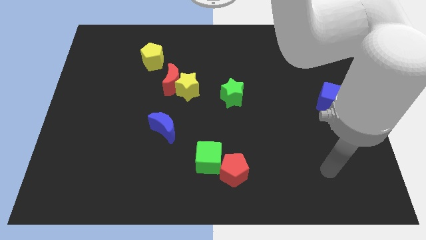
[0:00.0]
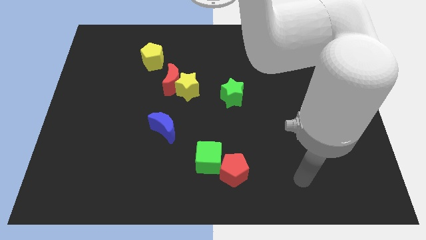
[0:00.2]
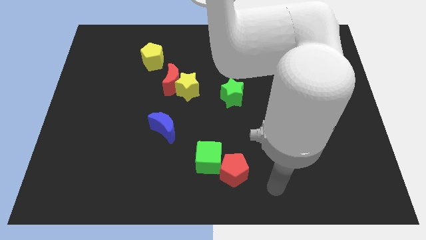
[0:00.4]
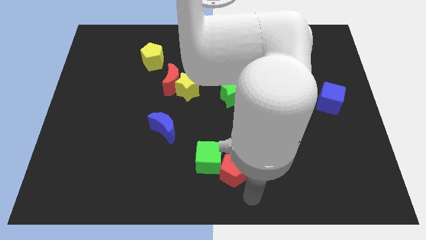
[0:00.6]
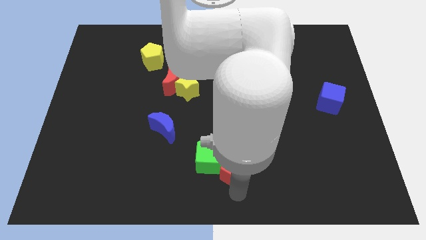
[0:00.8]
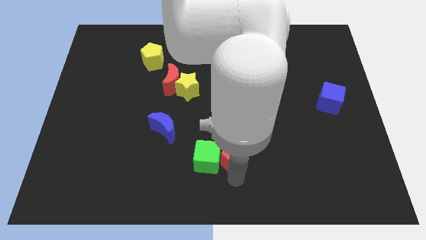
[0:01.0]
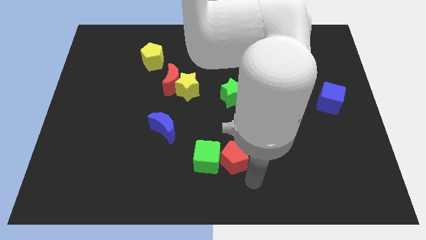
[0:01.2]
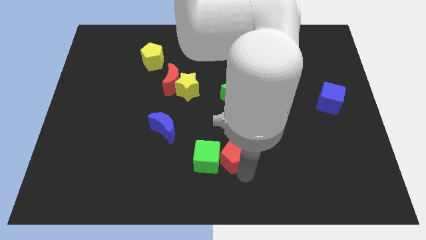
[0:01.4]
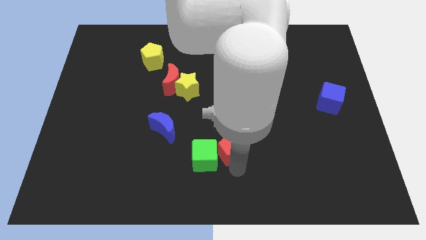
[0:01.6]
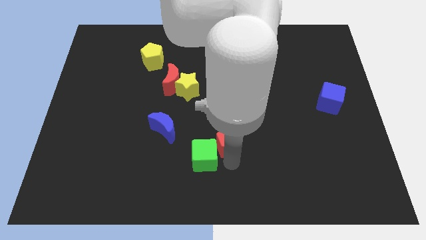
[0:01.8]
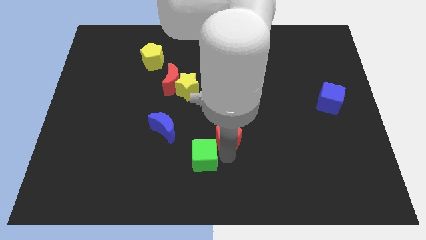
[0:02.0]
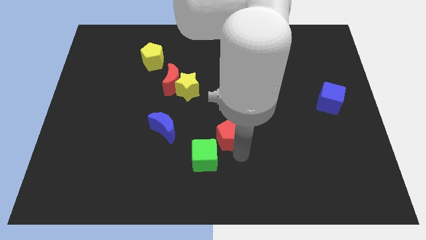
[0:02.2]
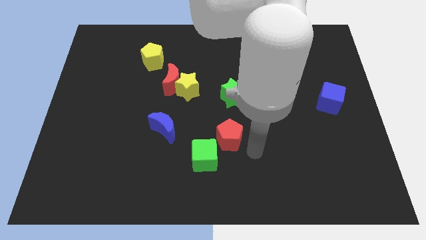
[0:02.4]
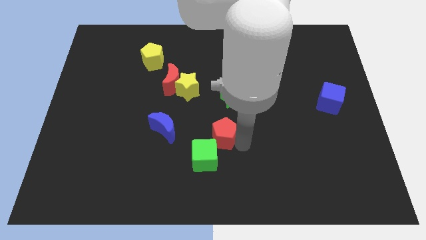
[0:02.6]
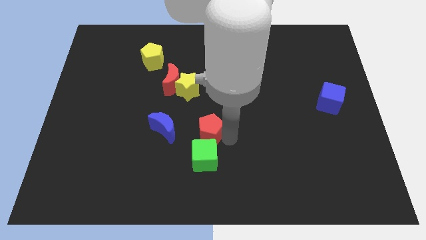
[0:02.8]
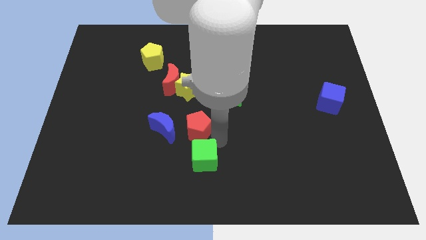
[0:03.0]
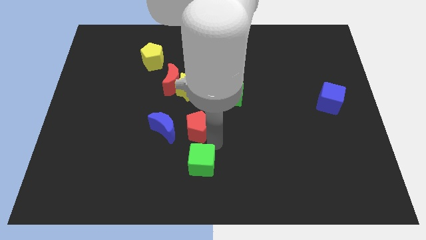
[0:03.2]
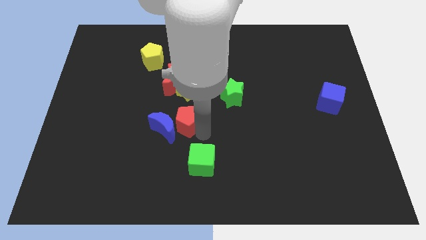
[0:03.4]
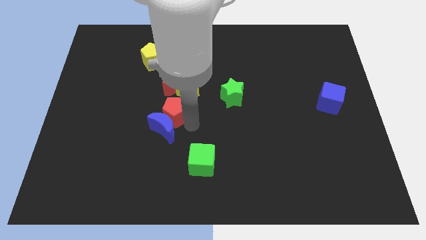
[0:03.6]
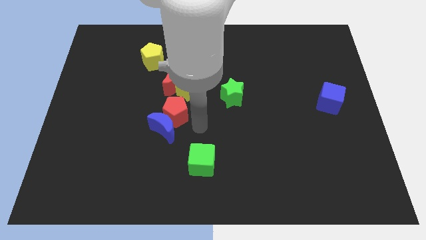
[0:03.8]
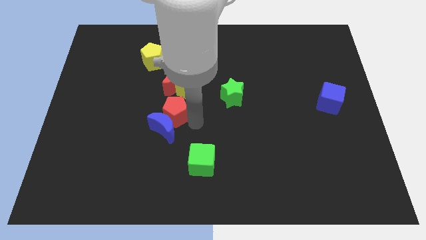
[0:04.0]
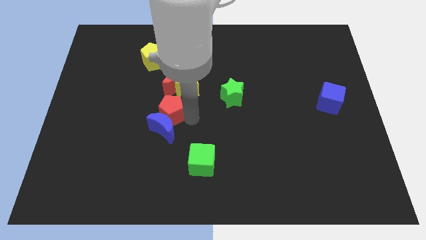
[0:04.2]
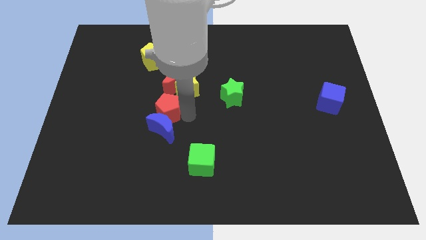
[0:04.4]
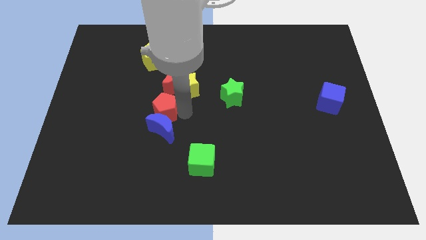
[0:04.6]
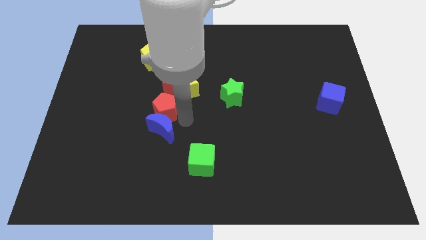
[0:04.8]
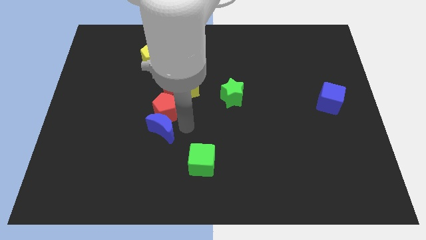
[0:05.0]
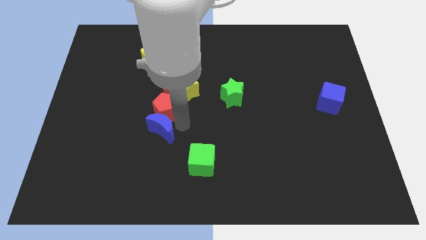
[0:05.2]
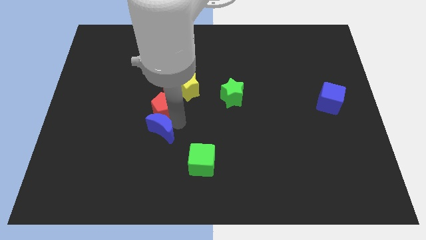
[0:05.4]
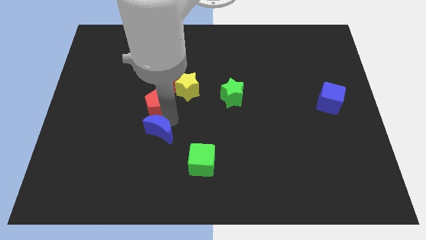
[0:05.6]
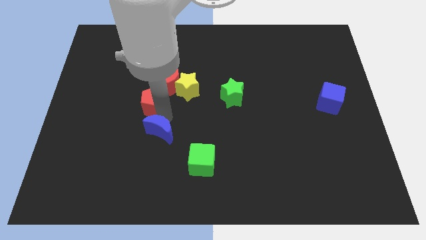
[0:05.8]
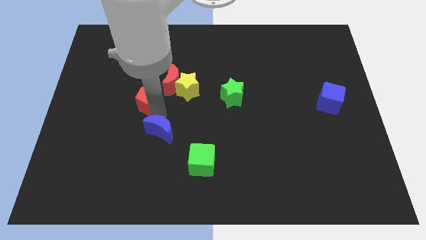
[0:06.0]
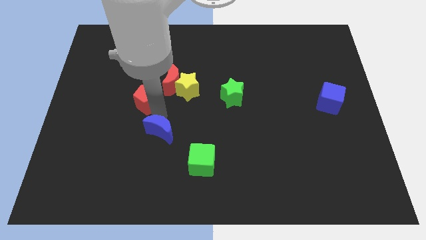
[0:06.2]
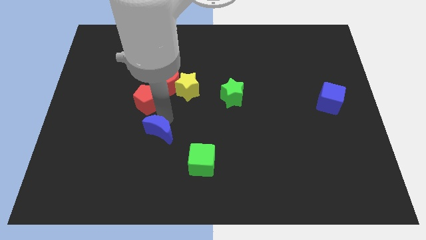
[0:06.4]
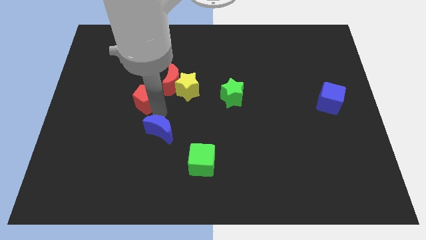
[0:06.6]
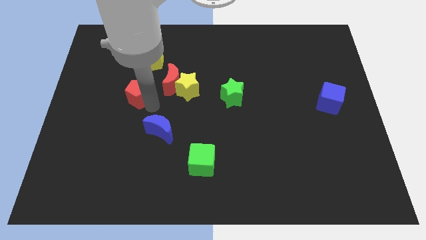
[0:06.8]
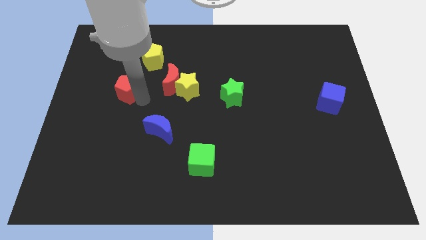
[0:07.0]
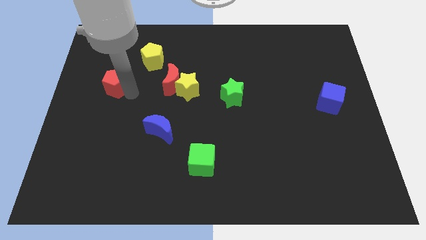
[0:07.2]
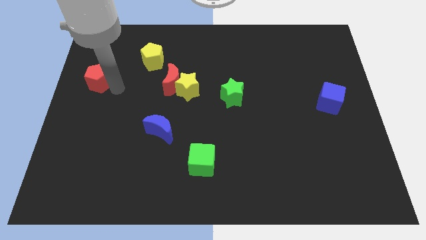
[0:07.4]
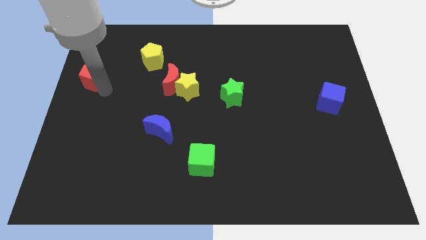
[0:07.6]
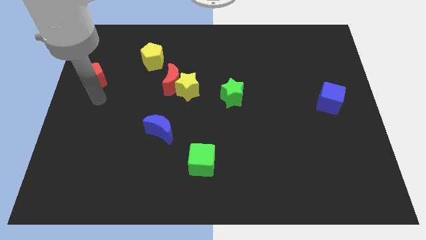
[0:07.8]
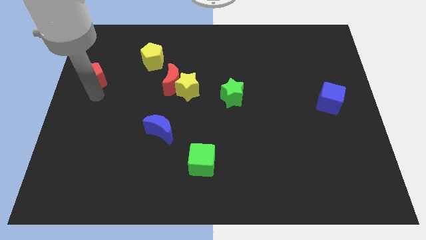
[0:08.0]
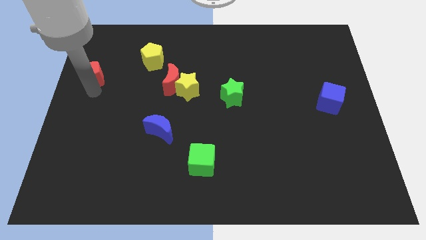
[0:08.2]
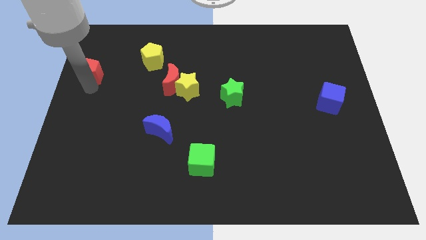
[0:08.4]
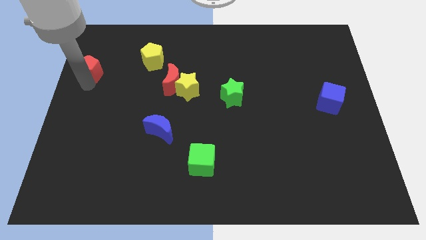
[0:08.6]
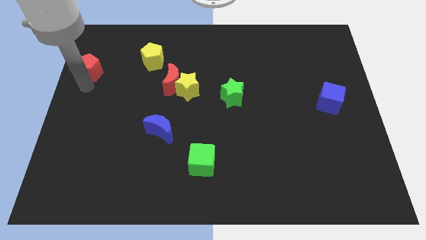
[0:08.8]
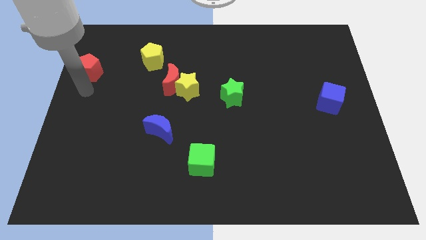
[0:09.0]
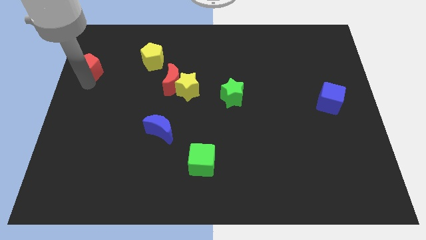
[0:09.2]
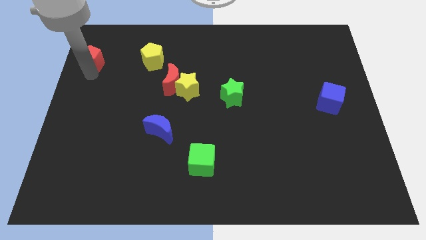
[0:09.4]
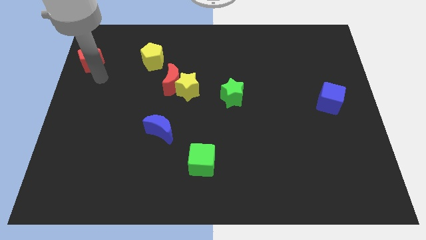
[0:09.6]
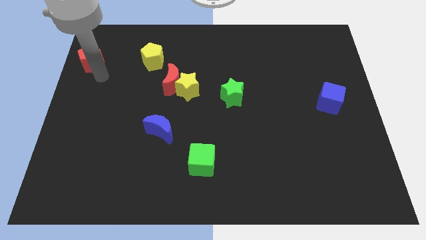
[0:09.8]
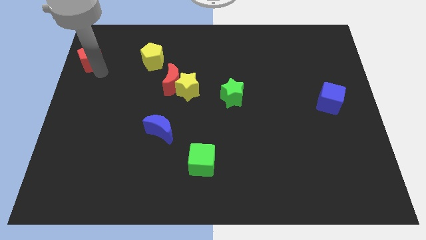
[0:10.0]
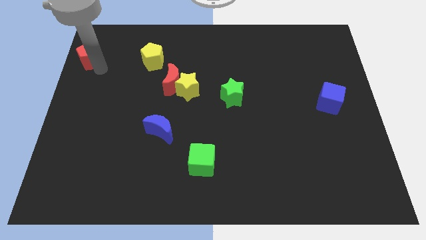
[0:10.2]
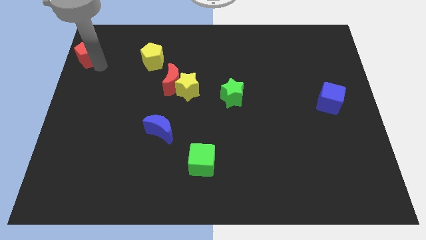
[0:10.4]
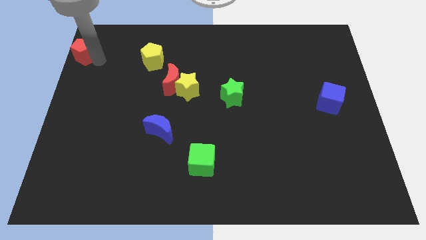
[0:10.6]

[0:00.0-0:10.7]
push the red pentagon to the top left corner

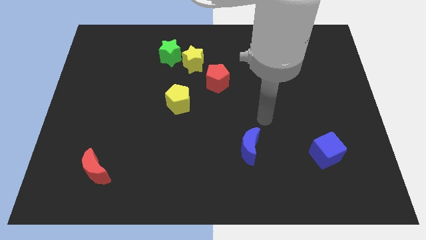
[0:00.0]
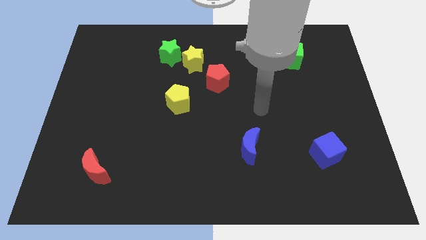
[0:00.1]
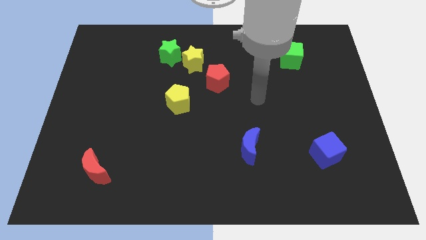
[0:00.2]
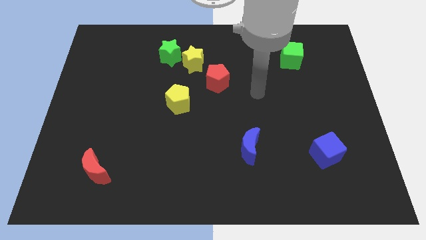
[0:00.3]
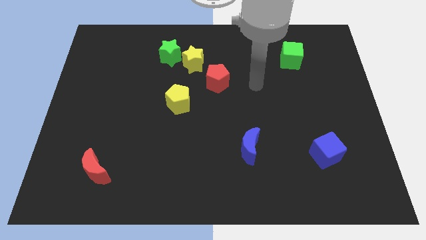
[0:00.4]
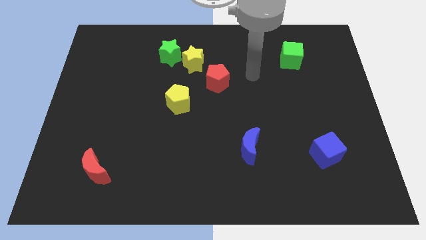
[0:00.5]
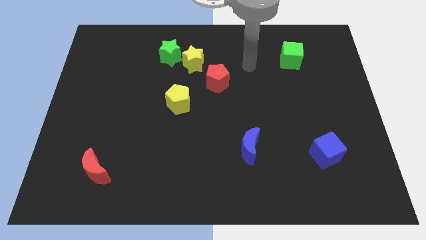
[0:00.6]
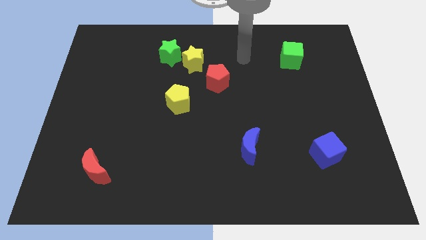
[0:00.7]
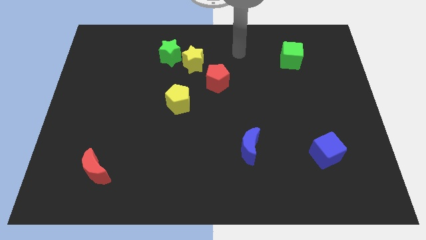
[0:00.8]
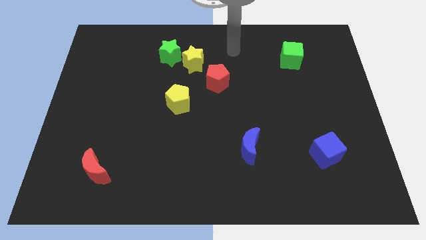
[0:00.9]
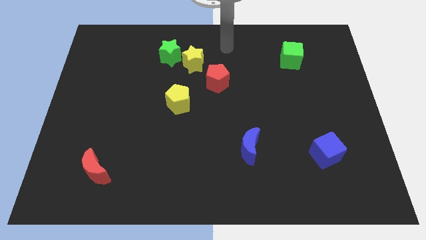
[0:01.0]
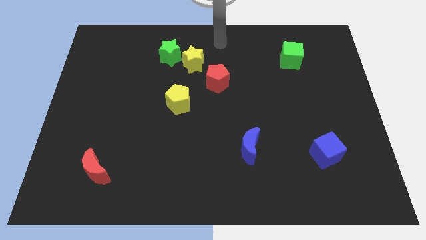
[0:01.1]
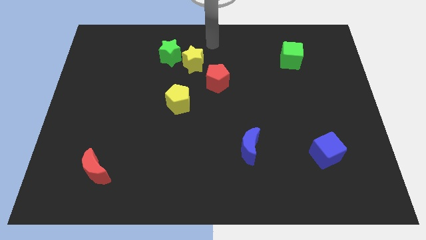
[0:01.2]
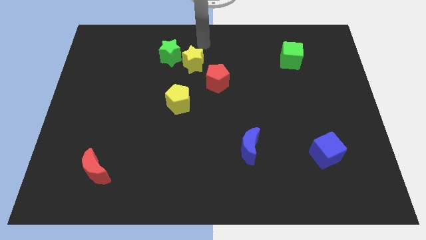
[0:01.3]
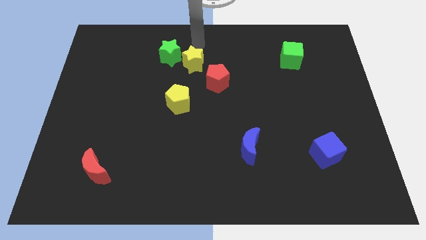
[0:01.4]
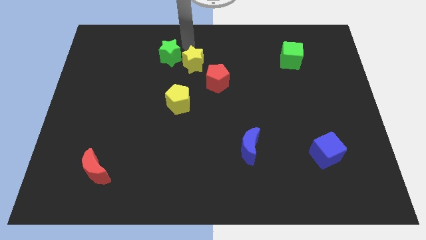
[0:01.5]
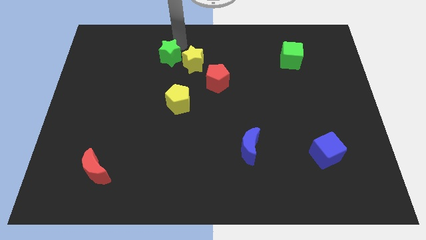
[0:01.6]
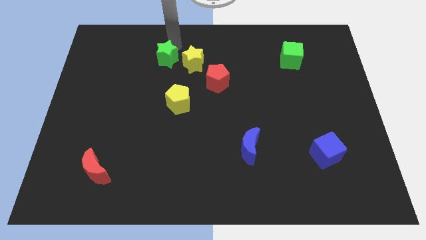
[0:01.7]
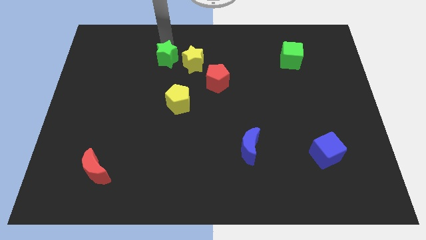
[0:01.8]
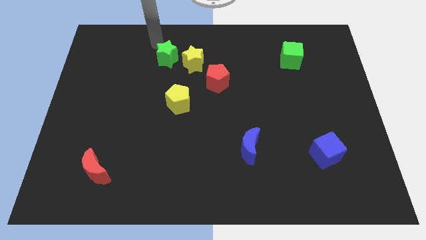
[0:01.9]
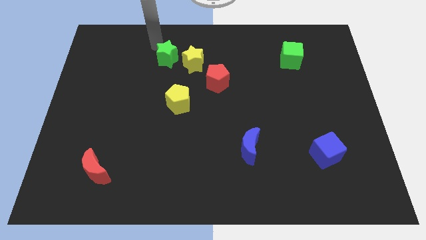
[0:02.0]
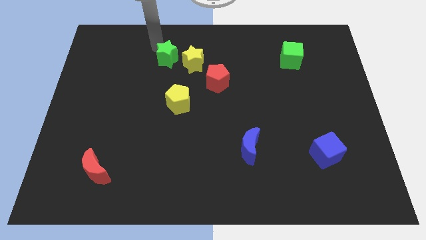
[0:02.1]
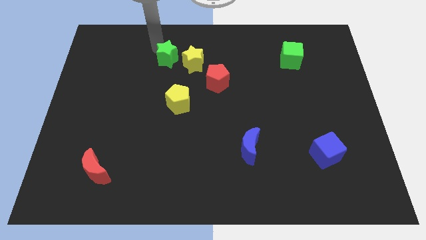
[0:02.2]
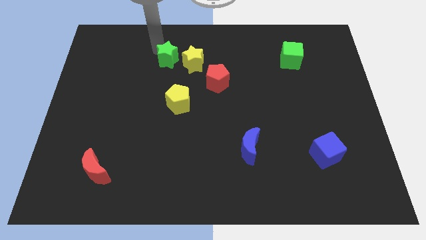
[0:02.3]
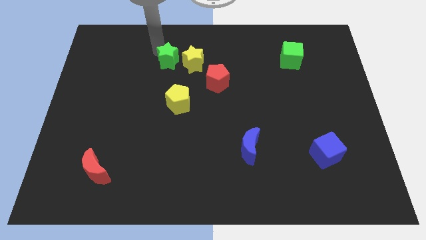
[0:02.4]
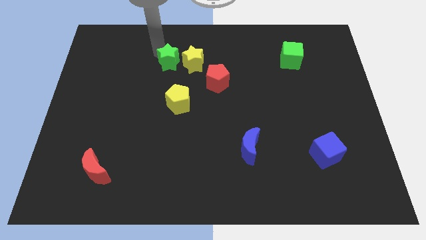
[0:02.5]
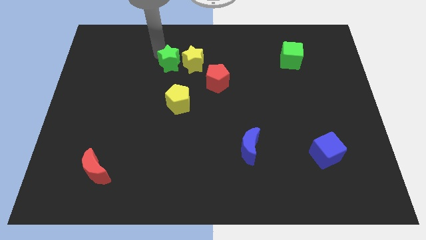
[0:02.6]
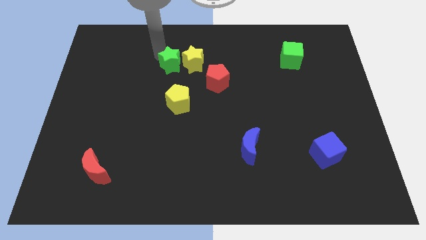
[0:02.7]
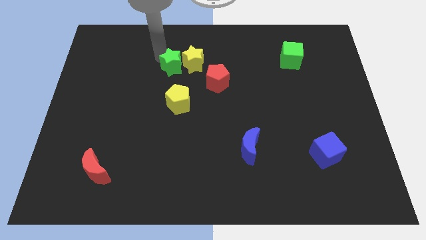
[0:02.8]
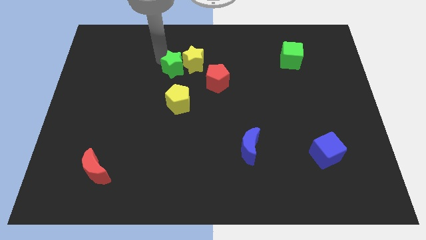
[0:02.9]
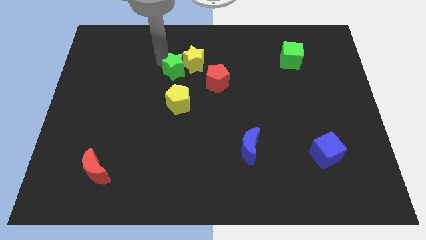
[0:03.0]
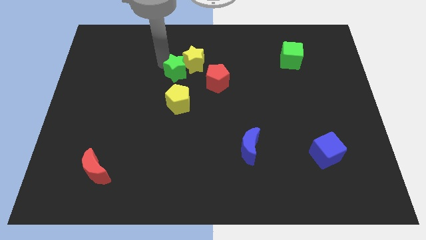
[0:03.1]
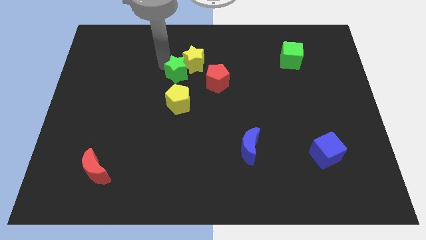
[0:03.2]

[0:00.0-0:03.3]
push the green star to the center of the board

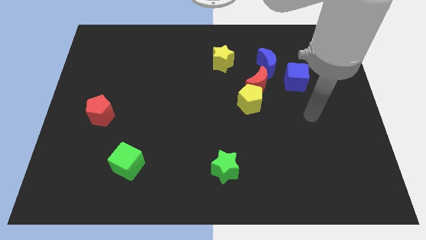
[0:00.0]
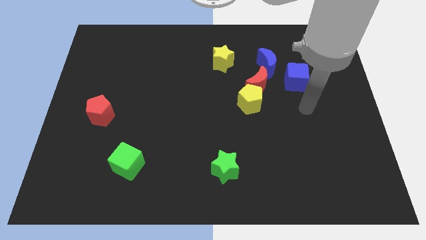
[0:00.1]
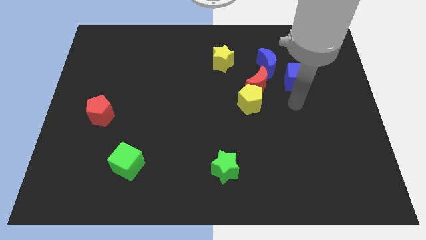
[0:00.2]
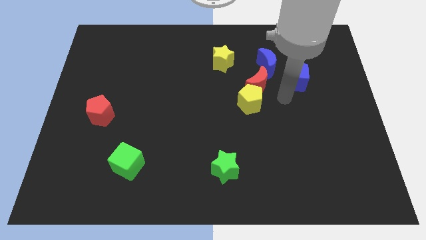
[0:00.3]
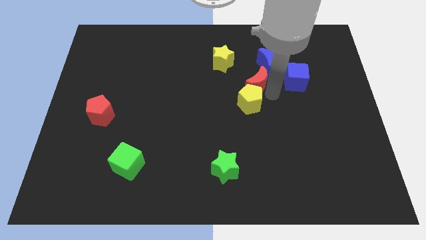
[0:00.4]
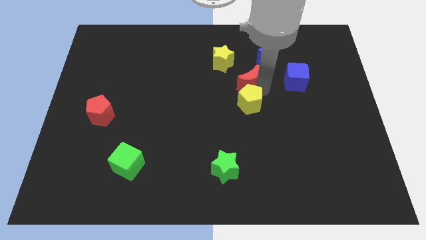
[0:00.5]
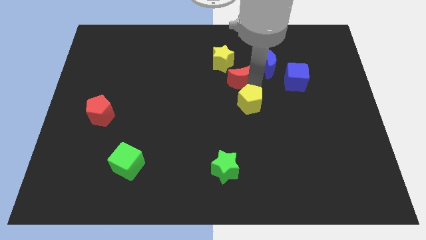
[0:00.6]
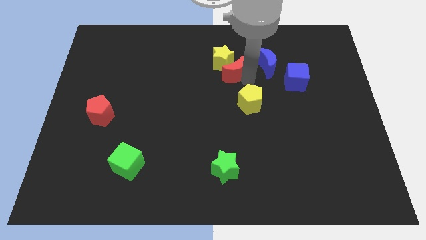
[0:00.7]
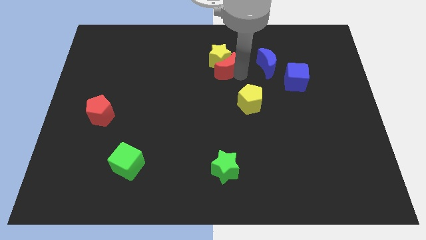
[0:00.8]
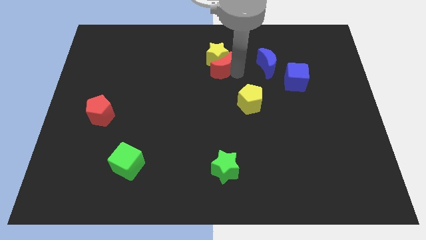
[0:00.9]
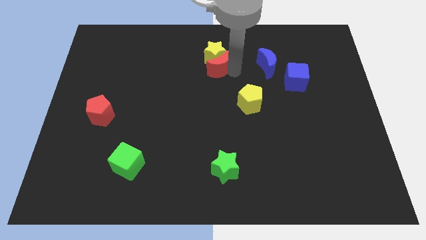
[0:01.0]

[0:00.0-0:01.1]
push the yellow star to the top side
